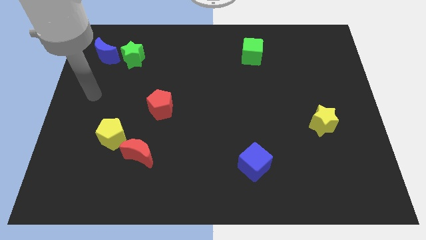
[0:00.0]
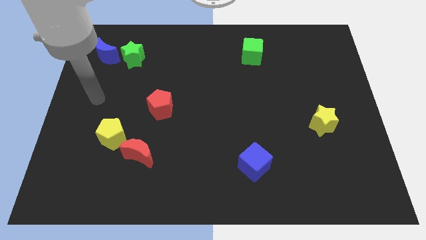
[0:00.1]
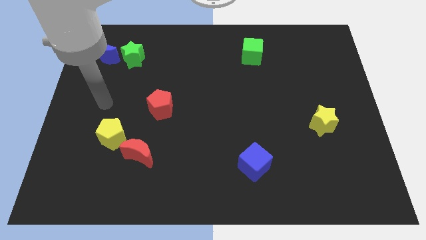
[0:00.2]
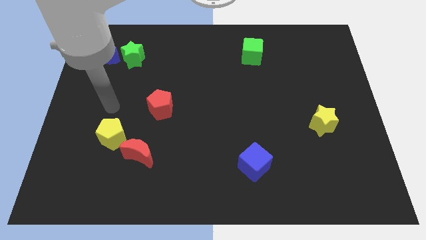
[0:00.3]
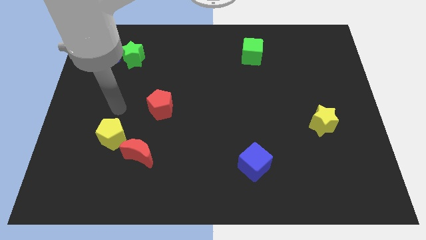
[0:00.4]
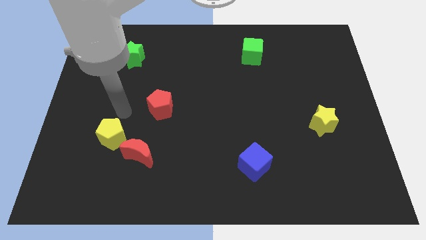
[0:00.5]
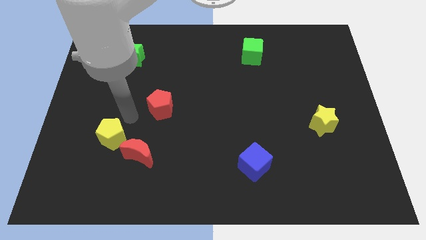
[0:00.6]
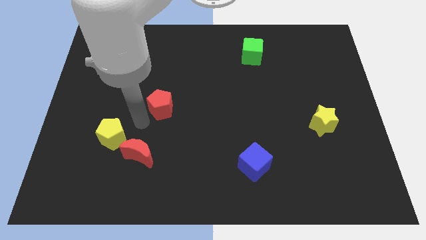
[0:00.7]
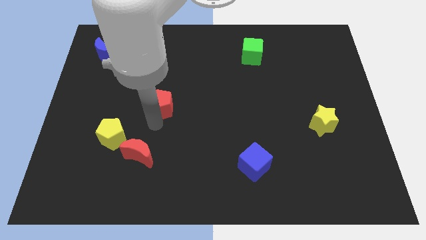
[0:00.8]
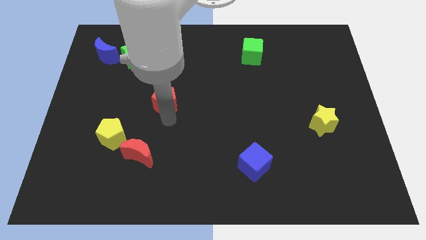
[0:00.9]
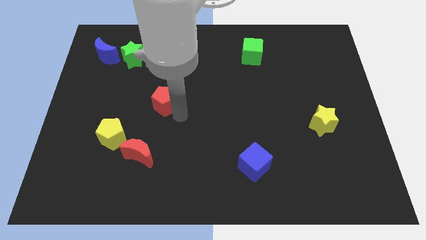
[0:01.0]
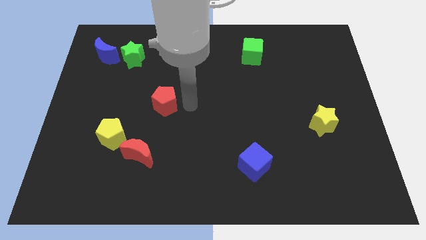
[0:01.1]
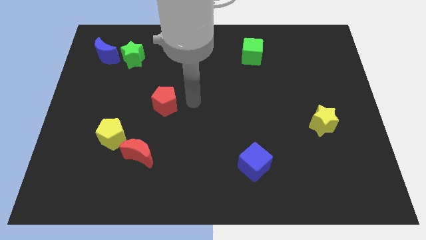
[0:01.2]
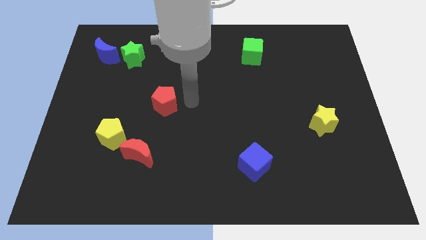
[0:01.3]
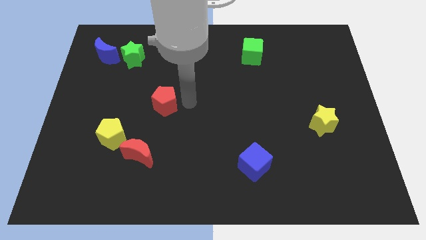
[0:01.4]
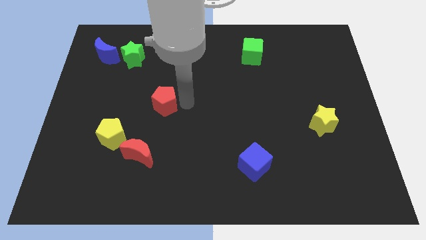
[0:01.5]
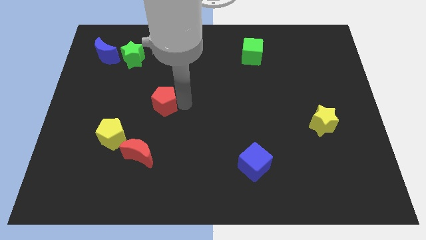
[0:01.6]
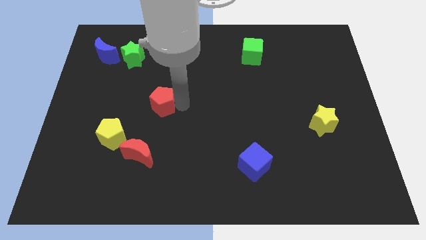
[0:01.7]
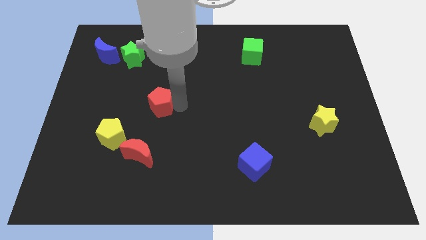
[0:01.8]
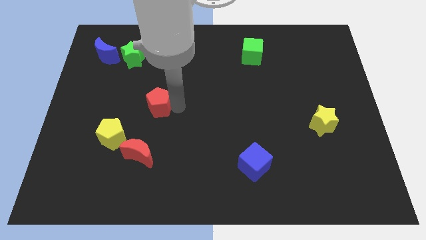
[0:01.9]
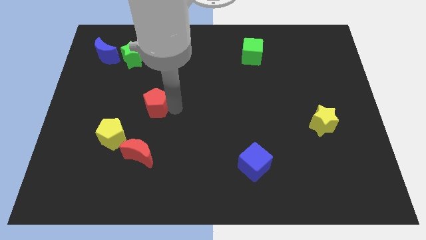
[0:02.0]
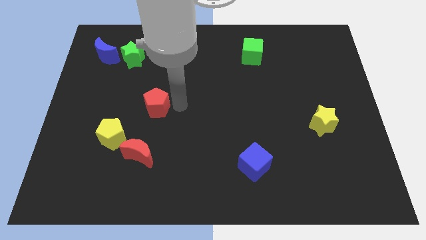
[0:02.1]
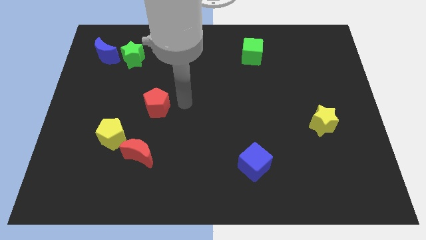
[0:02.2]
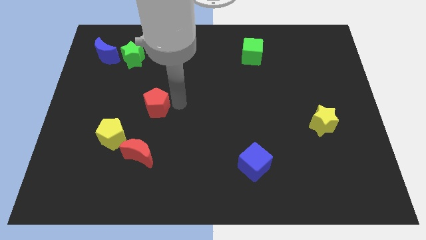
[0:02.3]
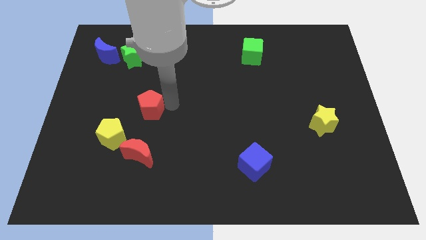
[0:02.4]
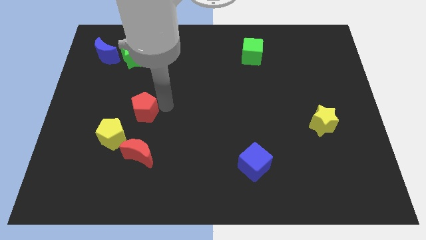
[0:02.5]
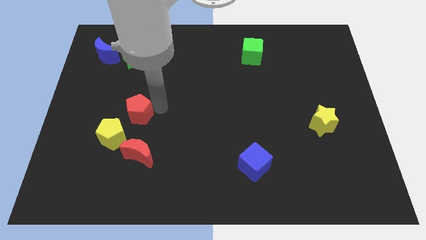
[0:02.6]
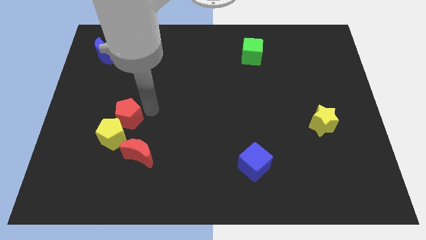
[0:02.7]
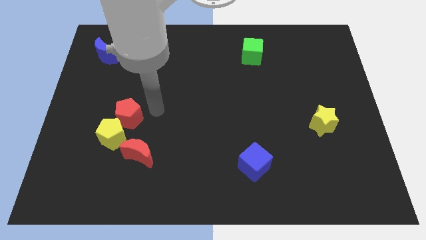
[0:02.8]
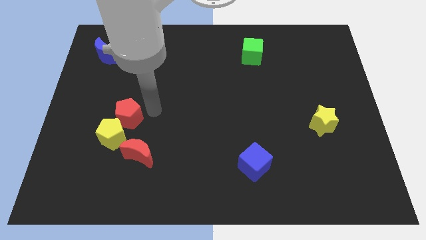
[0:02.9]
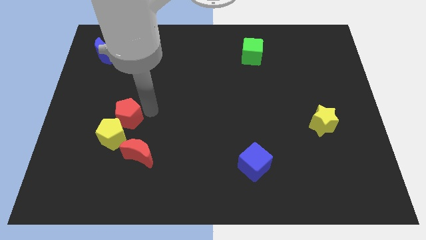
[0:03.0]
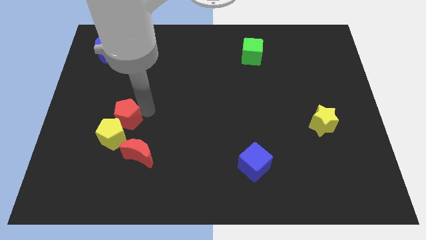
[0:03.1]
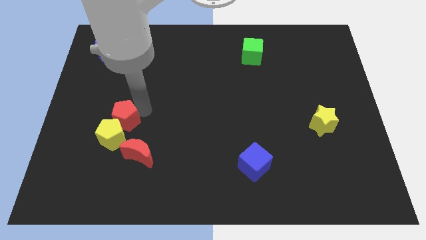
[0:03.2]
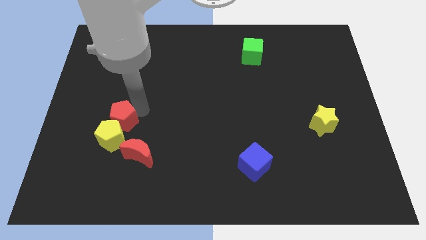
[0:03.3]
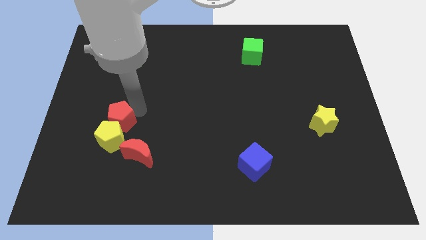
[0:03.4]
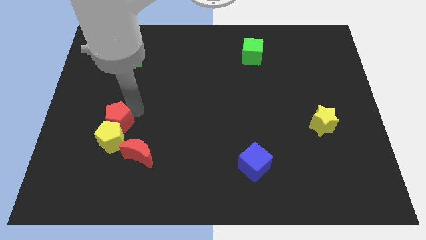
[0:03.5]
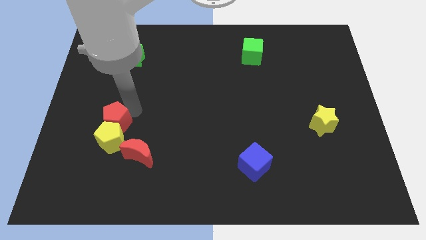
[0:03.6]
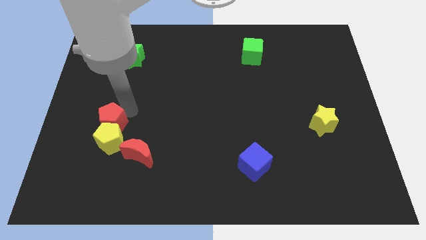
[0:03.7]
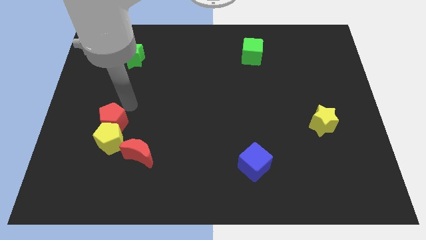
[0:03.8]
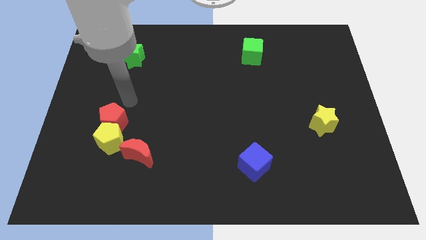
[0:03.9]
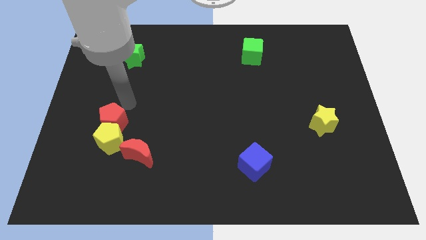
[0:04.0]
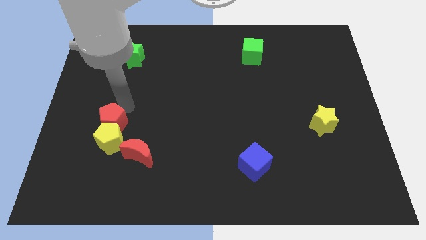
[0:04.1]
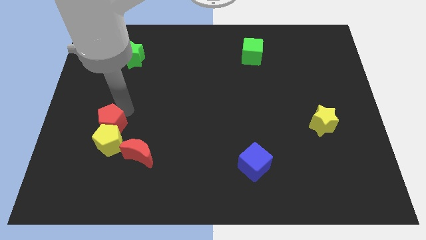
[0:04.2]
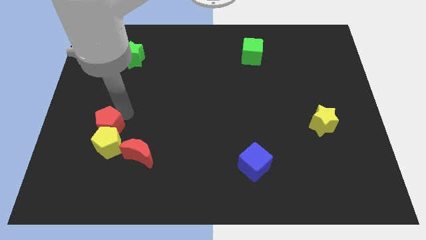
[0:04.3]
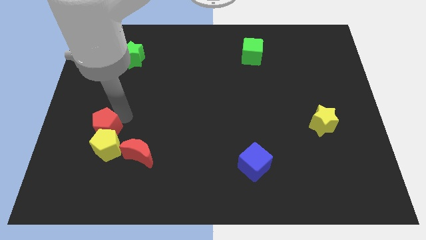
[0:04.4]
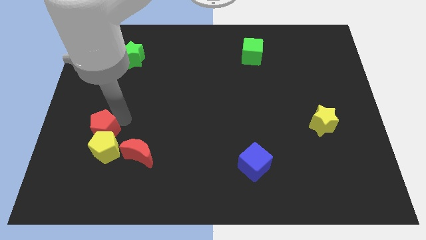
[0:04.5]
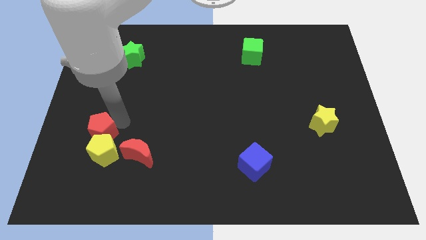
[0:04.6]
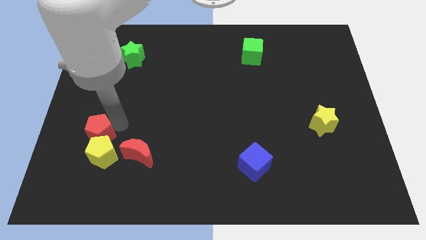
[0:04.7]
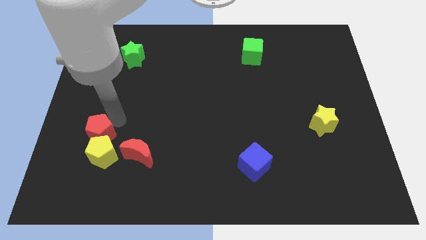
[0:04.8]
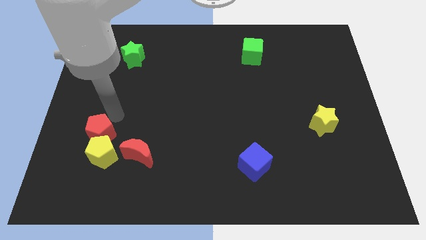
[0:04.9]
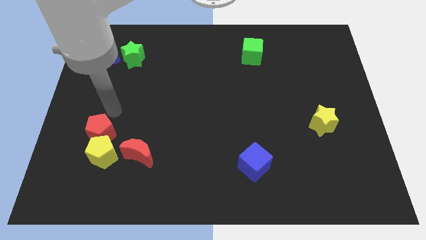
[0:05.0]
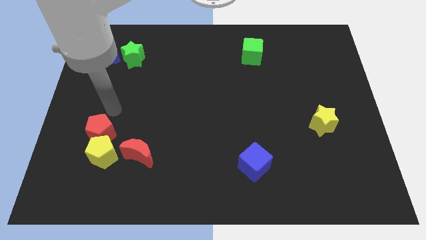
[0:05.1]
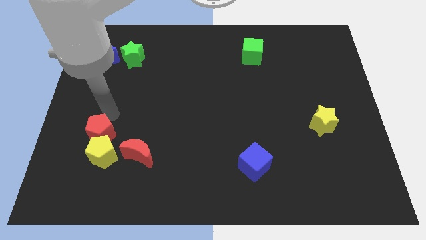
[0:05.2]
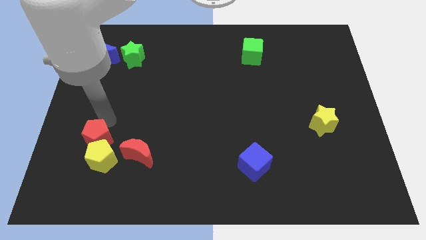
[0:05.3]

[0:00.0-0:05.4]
move the red pentagon to the left side of the red moon

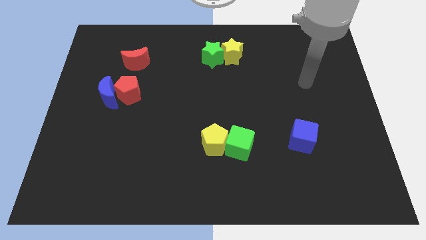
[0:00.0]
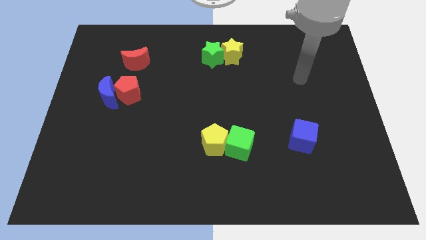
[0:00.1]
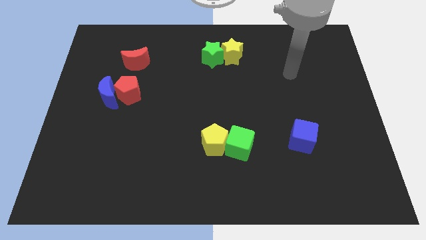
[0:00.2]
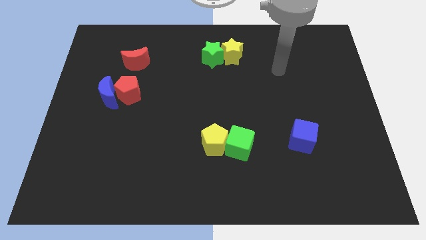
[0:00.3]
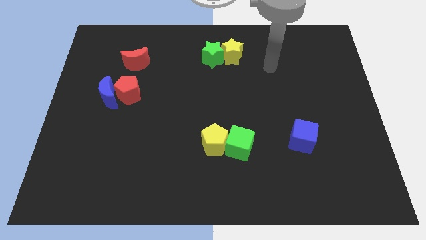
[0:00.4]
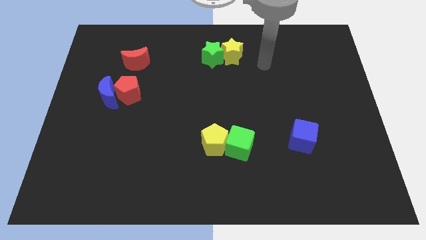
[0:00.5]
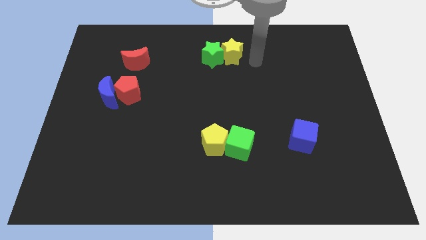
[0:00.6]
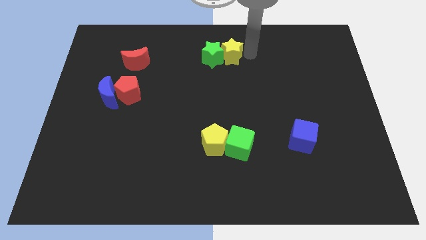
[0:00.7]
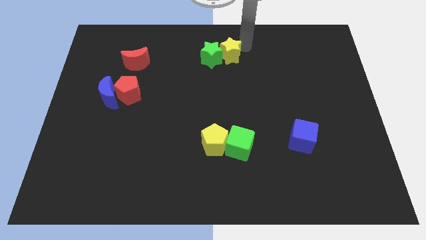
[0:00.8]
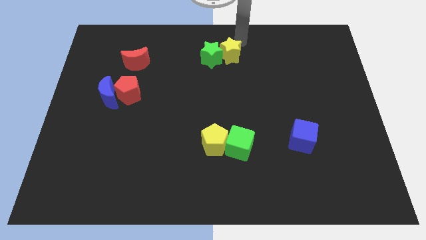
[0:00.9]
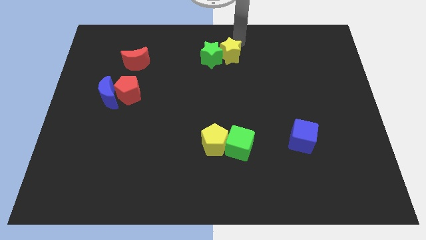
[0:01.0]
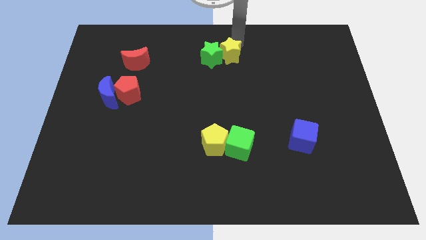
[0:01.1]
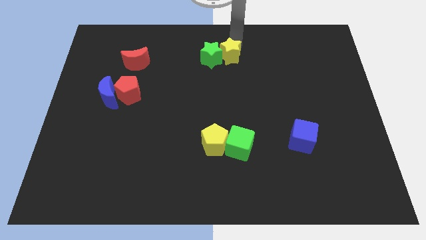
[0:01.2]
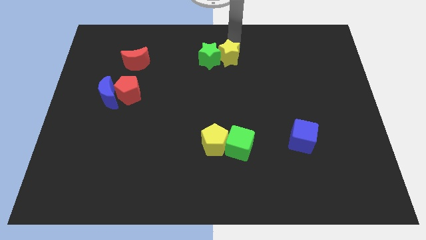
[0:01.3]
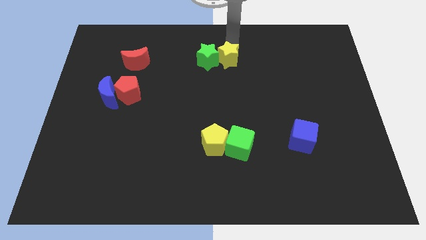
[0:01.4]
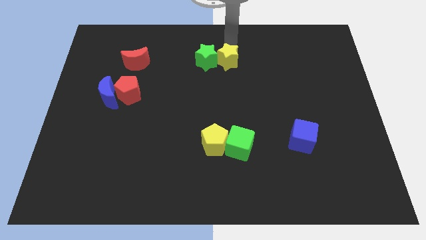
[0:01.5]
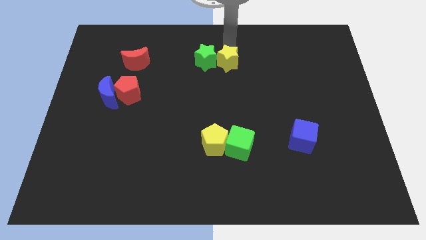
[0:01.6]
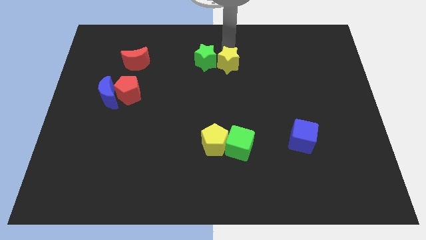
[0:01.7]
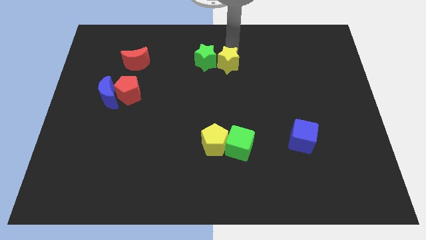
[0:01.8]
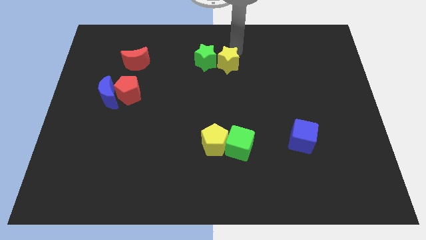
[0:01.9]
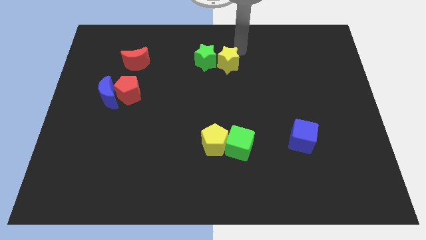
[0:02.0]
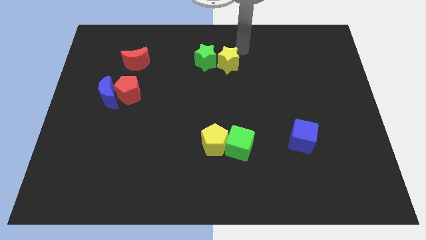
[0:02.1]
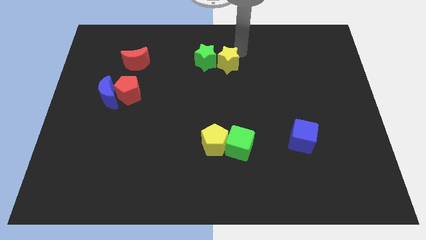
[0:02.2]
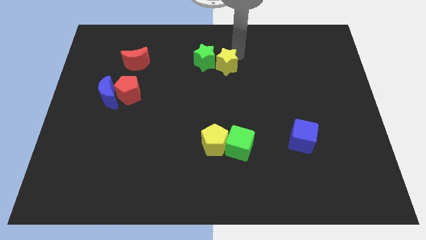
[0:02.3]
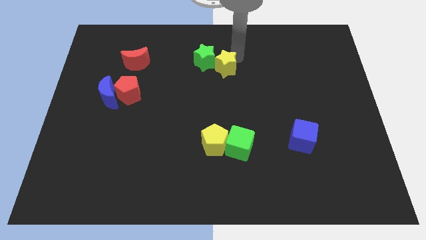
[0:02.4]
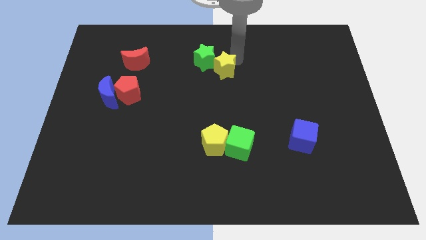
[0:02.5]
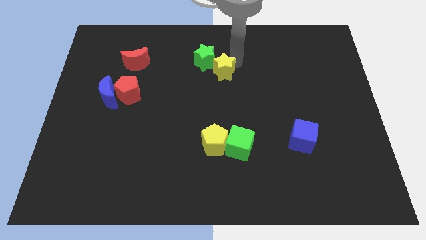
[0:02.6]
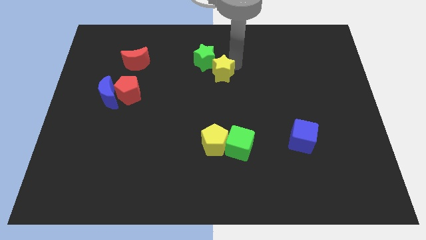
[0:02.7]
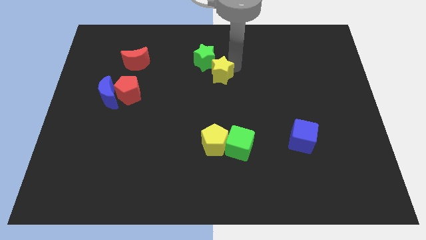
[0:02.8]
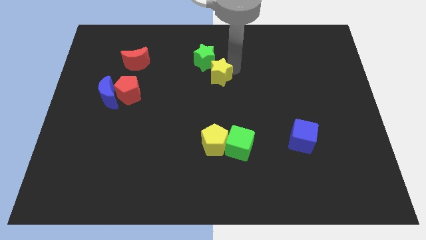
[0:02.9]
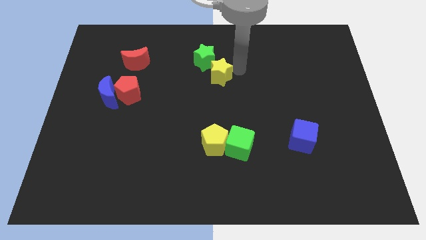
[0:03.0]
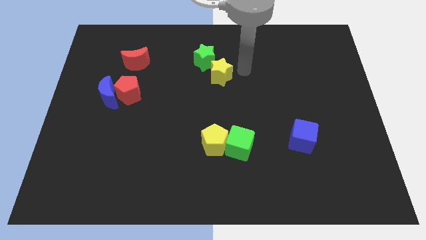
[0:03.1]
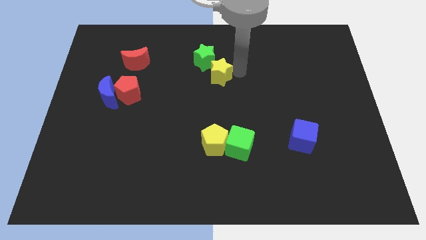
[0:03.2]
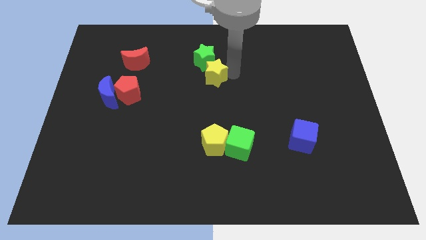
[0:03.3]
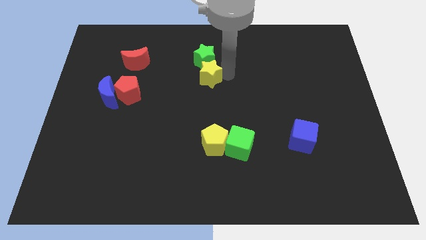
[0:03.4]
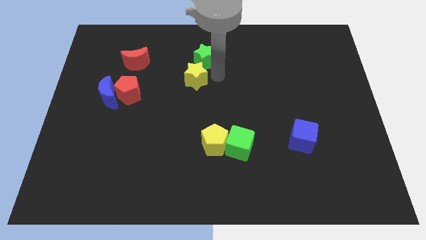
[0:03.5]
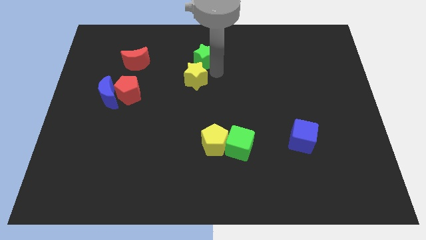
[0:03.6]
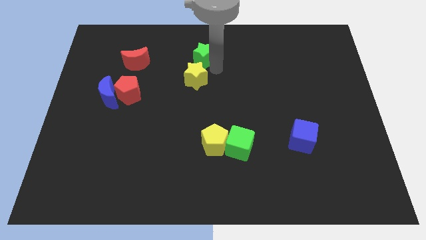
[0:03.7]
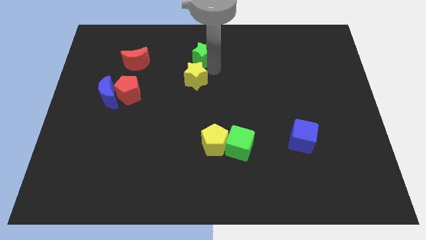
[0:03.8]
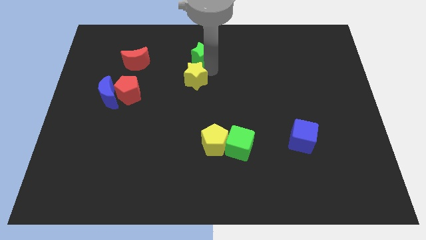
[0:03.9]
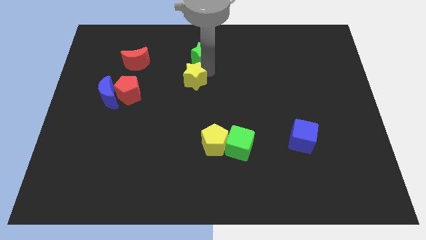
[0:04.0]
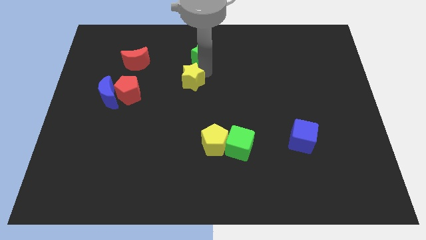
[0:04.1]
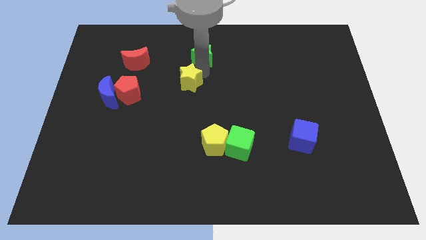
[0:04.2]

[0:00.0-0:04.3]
move the yellow star to the right side of the red pentagon
